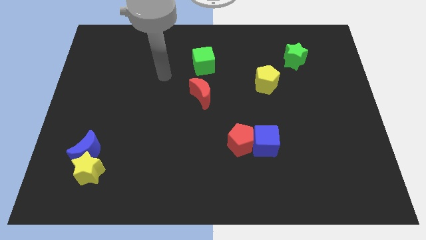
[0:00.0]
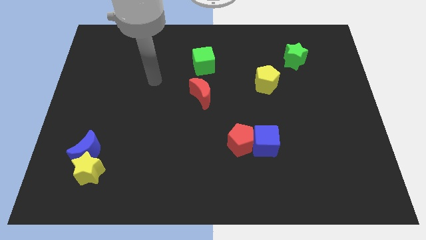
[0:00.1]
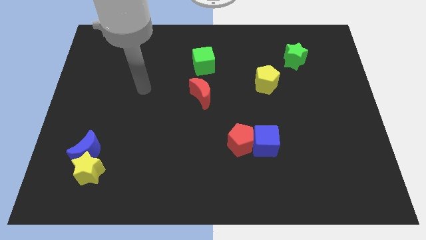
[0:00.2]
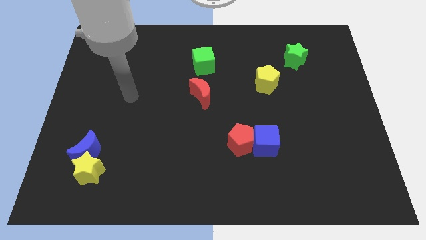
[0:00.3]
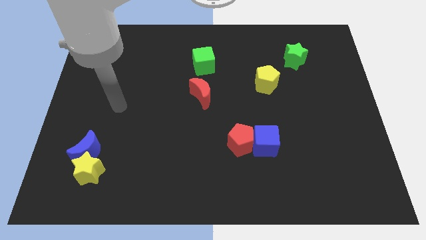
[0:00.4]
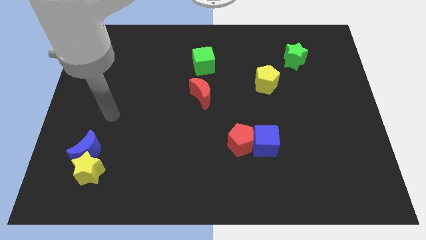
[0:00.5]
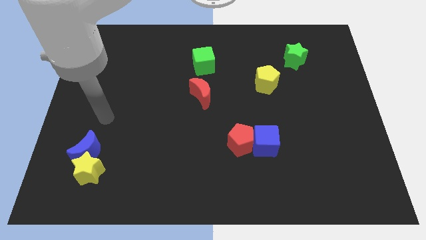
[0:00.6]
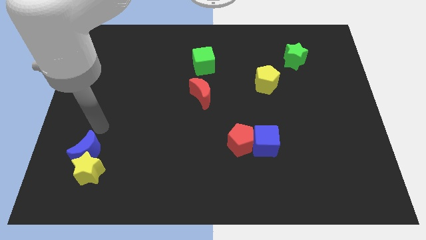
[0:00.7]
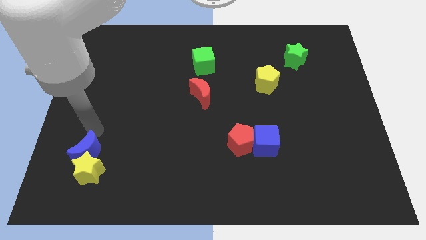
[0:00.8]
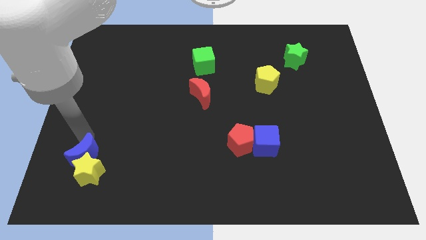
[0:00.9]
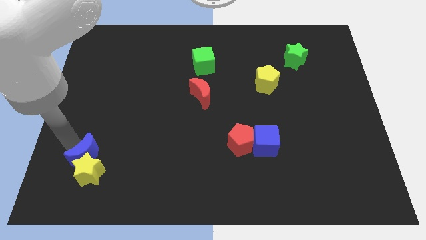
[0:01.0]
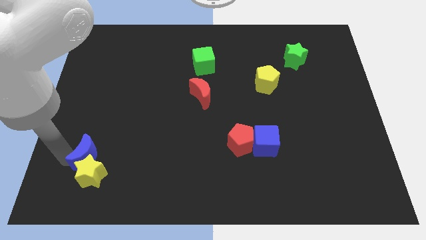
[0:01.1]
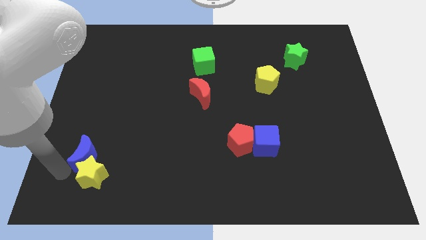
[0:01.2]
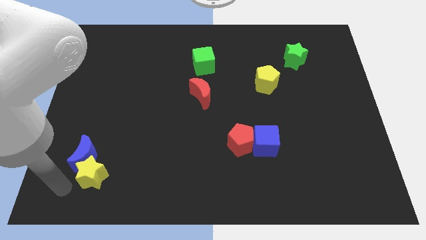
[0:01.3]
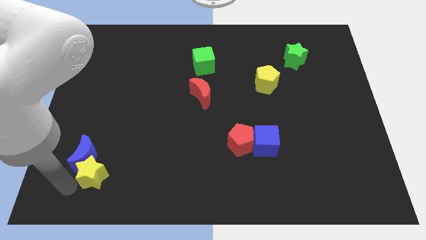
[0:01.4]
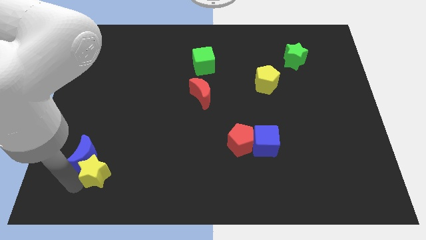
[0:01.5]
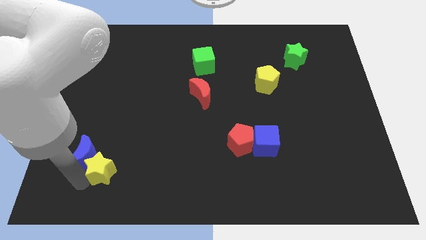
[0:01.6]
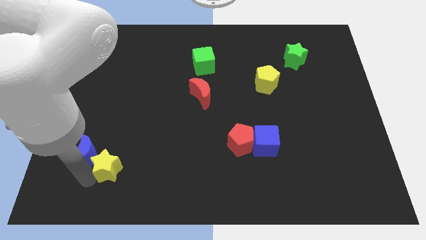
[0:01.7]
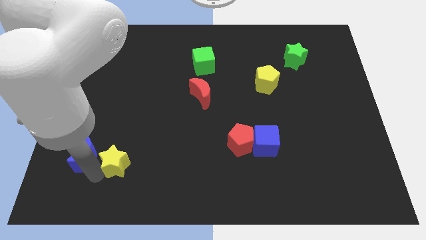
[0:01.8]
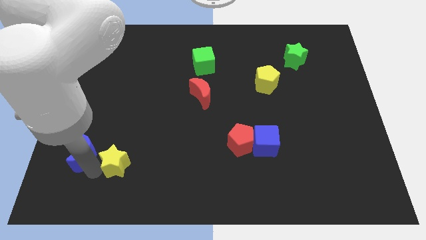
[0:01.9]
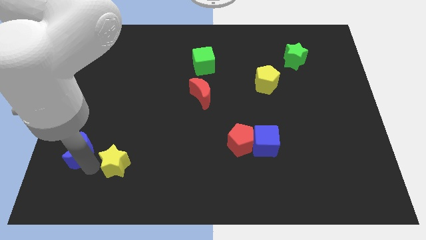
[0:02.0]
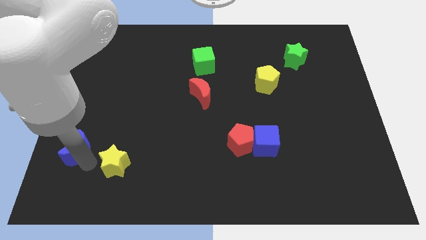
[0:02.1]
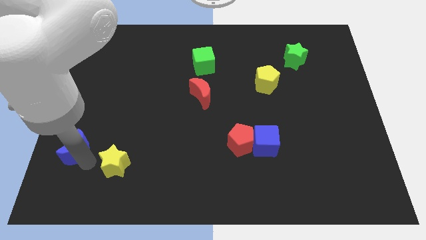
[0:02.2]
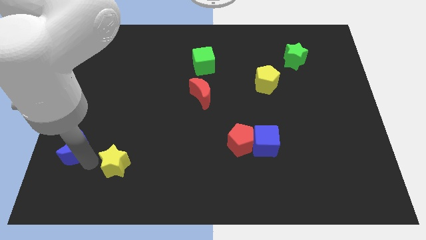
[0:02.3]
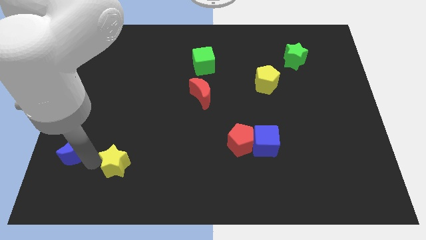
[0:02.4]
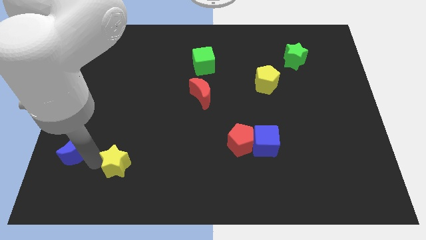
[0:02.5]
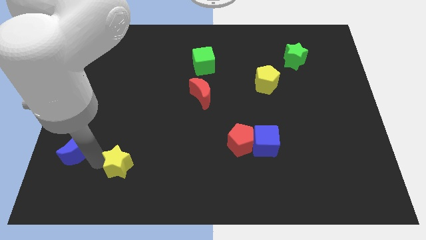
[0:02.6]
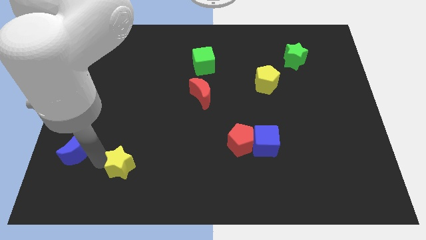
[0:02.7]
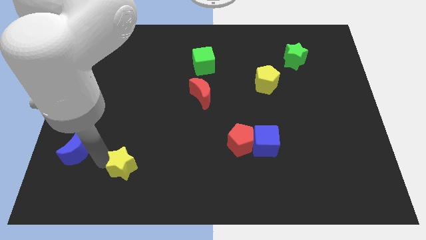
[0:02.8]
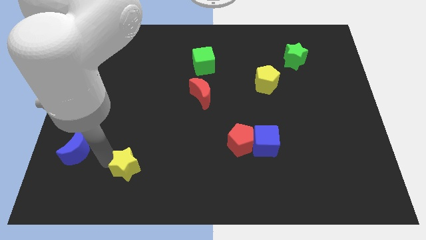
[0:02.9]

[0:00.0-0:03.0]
move the yellow star a little bit right

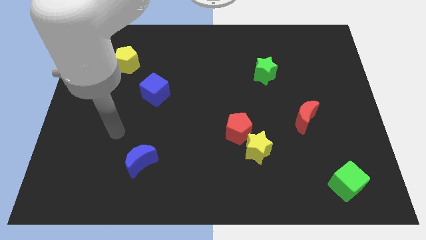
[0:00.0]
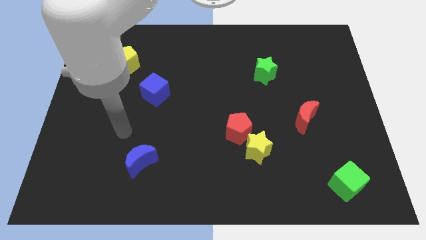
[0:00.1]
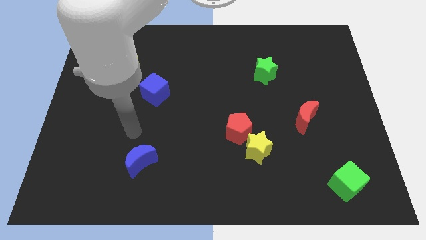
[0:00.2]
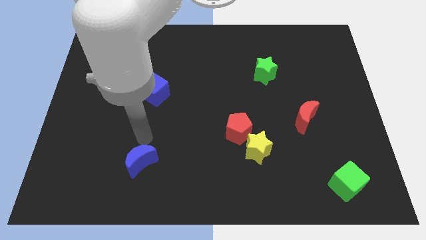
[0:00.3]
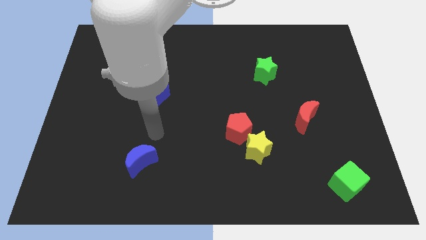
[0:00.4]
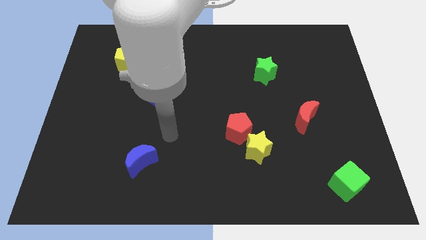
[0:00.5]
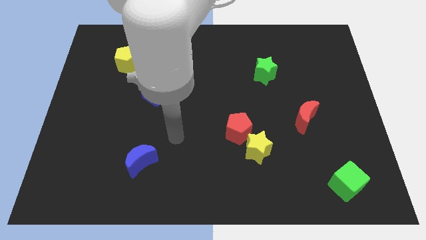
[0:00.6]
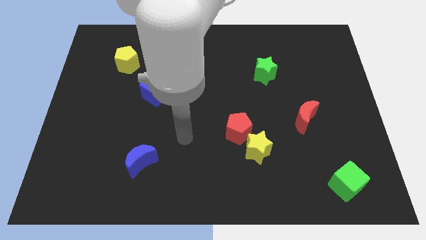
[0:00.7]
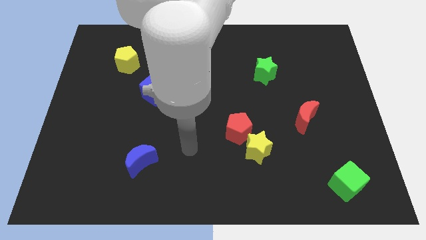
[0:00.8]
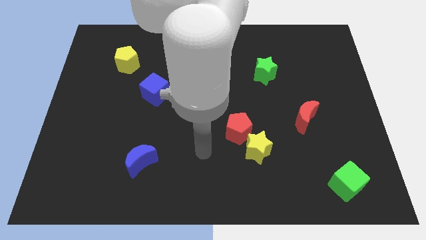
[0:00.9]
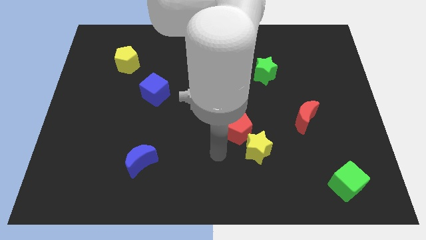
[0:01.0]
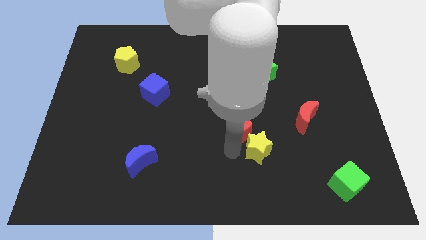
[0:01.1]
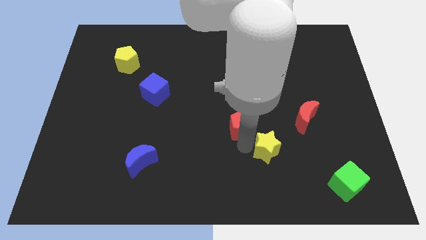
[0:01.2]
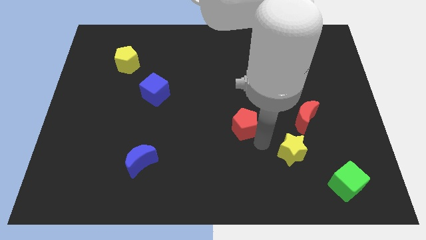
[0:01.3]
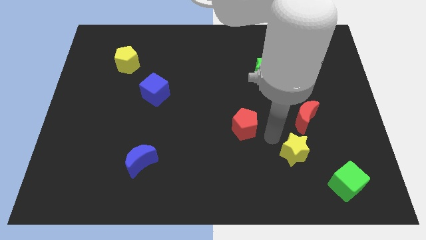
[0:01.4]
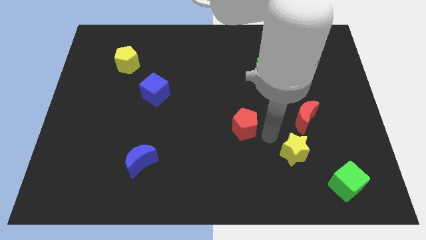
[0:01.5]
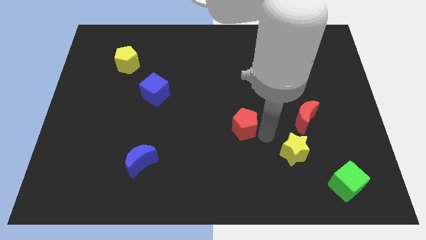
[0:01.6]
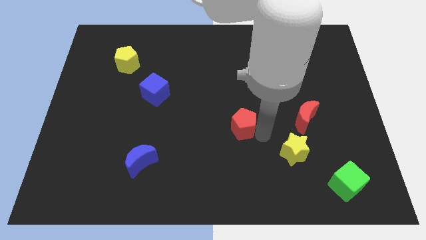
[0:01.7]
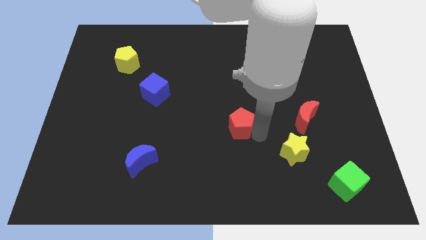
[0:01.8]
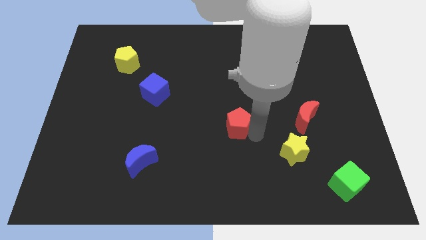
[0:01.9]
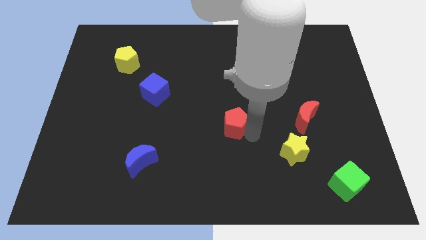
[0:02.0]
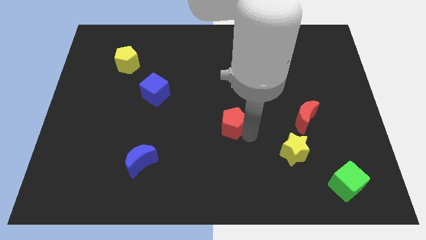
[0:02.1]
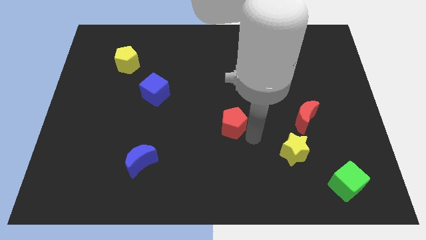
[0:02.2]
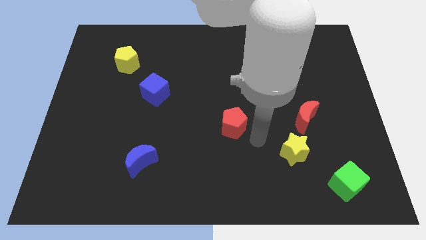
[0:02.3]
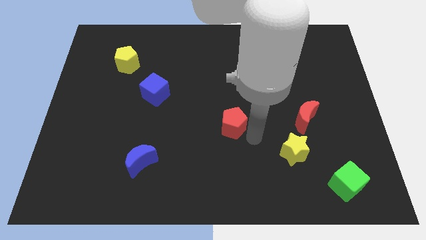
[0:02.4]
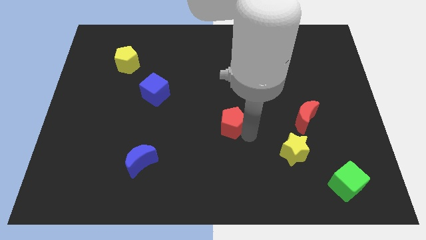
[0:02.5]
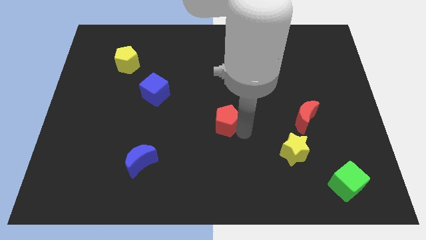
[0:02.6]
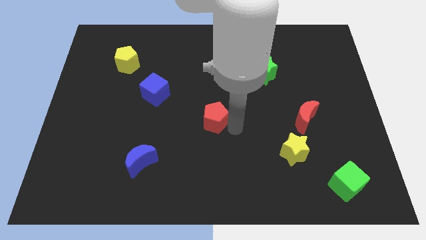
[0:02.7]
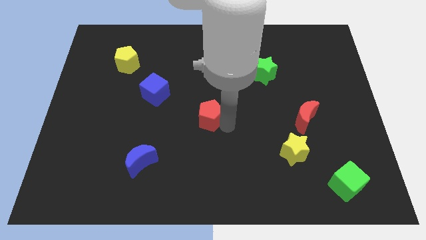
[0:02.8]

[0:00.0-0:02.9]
move the red pentagon upwards and left diagonally somewhat

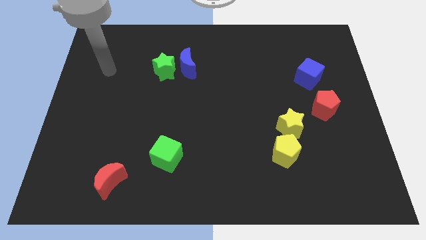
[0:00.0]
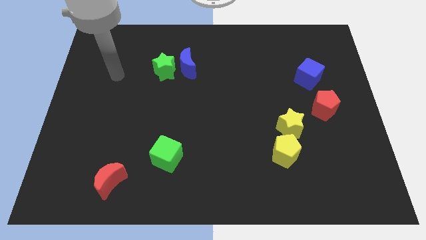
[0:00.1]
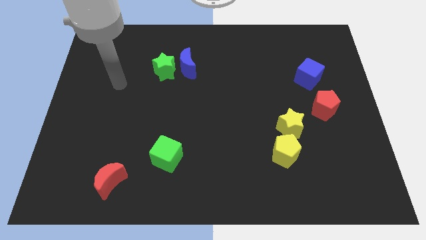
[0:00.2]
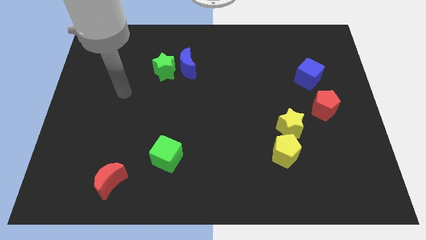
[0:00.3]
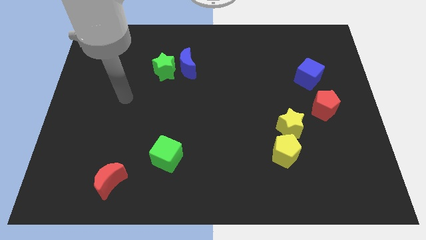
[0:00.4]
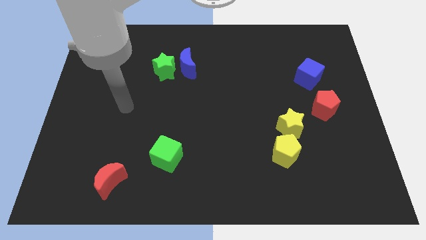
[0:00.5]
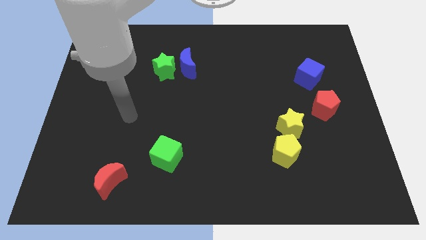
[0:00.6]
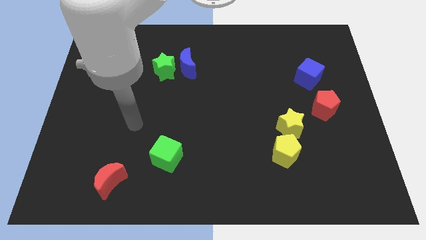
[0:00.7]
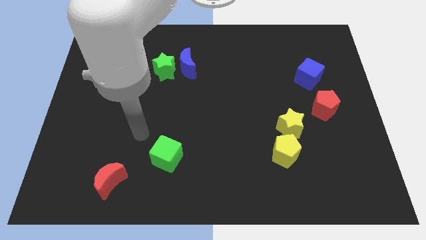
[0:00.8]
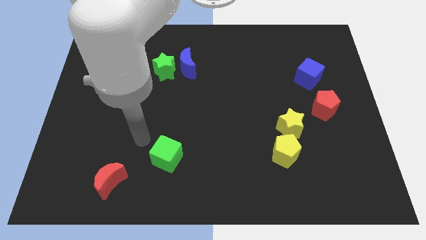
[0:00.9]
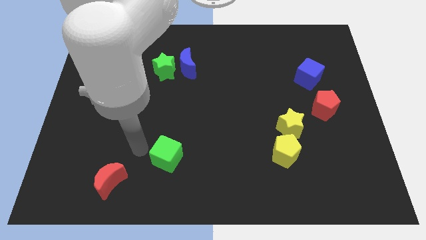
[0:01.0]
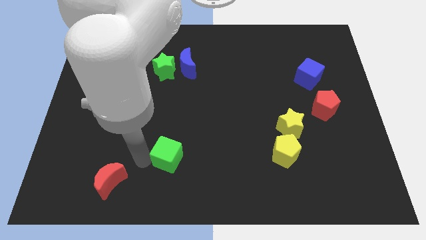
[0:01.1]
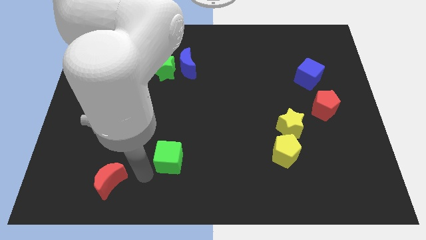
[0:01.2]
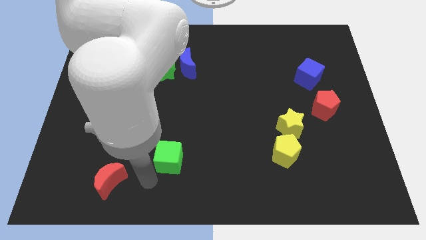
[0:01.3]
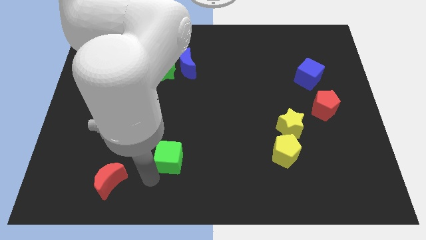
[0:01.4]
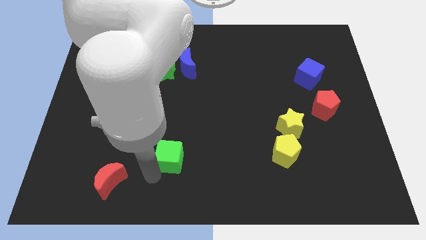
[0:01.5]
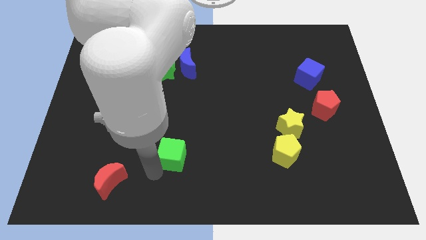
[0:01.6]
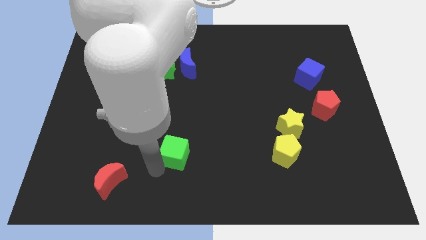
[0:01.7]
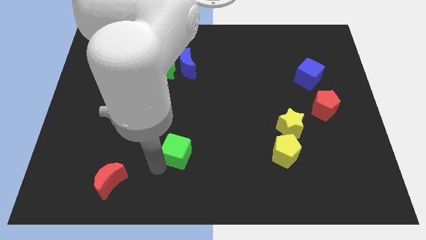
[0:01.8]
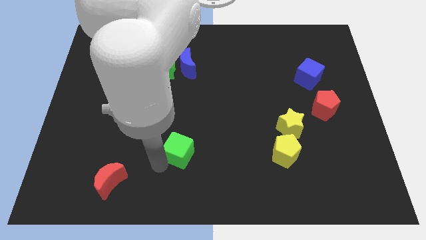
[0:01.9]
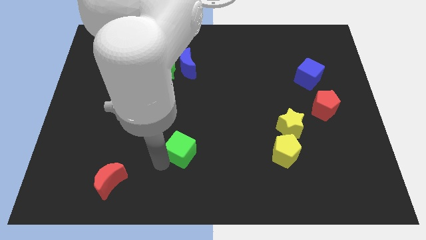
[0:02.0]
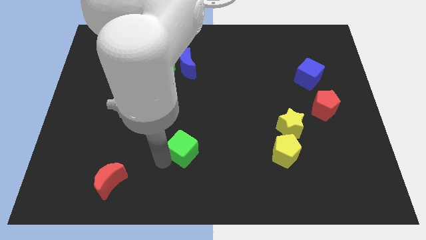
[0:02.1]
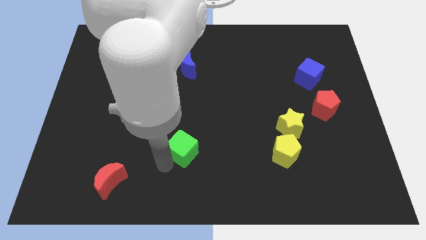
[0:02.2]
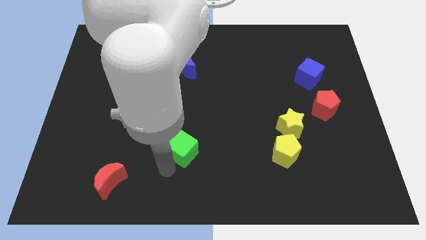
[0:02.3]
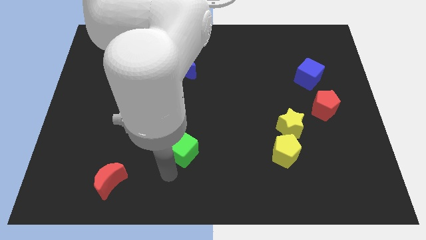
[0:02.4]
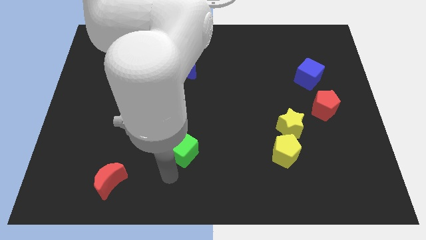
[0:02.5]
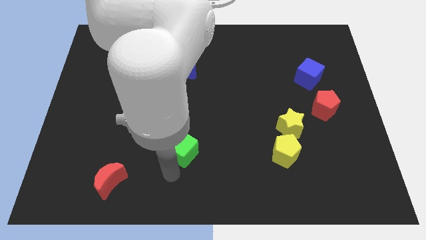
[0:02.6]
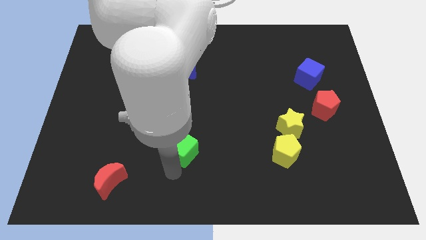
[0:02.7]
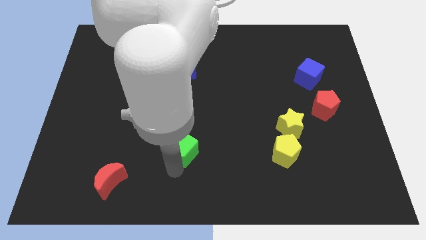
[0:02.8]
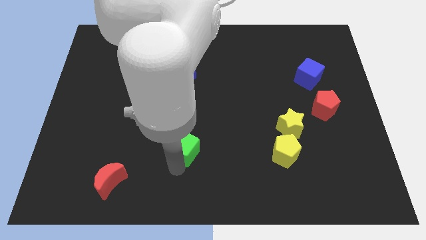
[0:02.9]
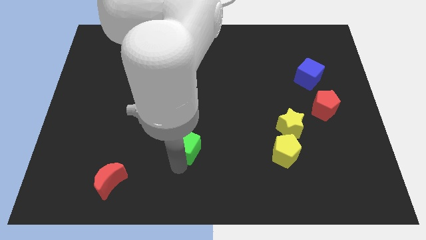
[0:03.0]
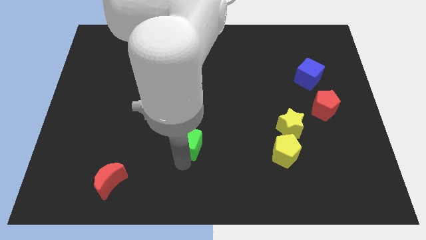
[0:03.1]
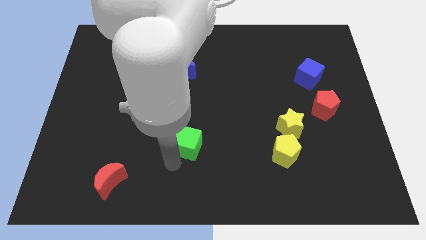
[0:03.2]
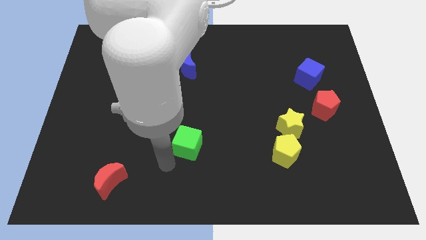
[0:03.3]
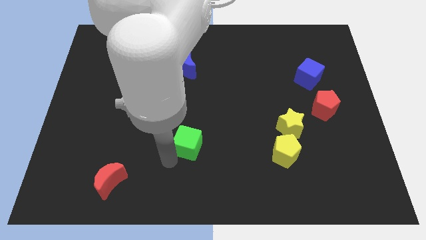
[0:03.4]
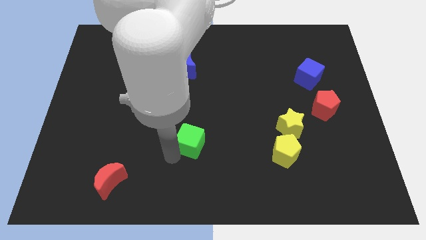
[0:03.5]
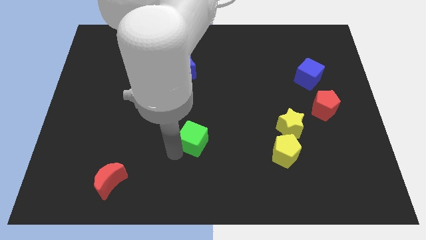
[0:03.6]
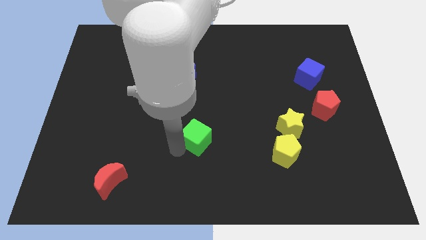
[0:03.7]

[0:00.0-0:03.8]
slide the green cube upwards and then right a bit
